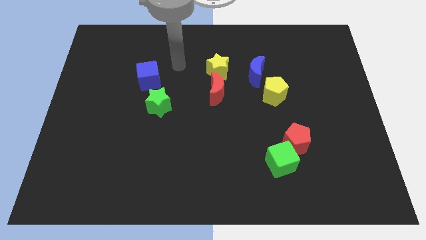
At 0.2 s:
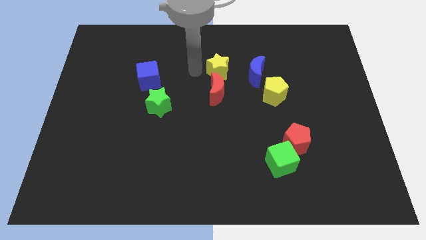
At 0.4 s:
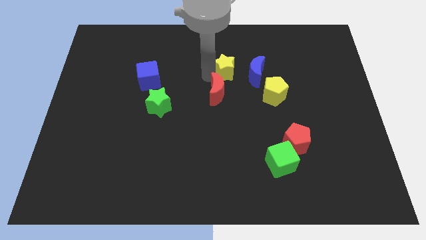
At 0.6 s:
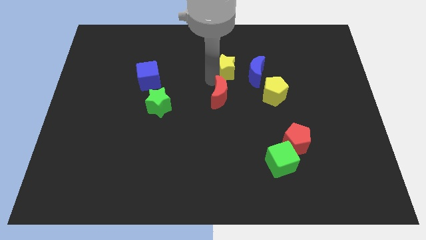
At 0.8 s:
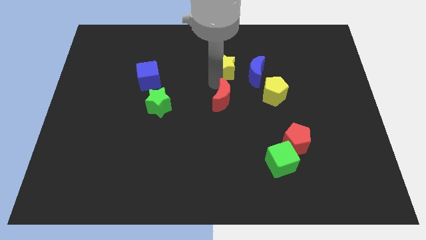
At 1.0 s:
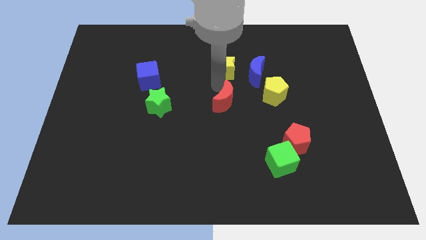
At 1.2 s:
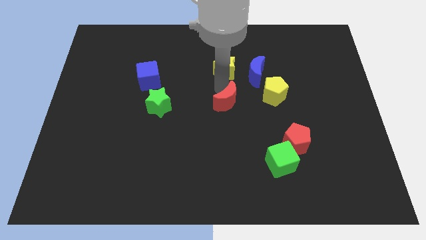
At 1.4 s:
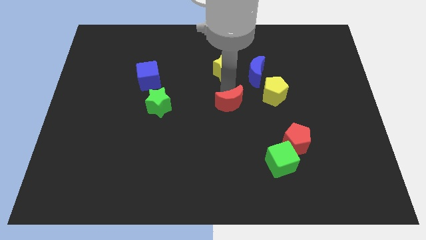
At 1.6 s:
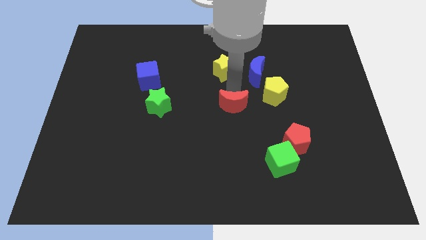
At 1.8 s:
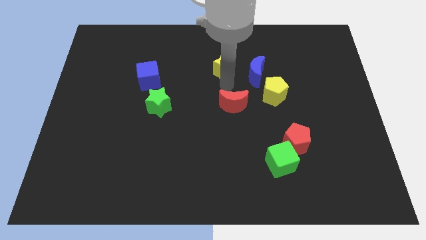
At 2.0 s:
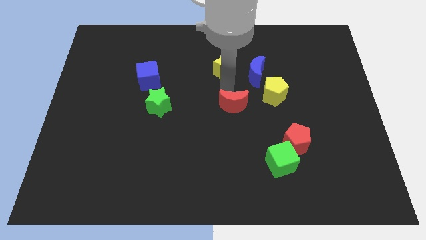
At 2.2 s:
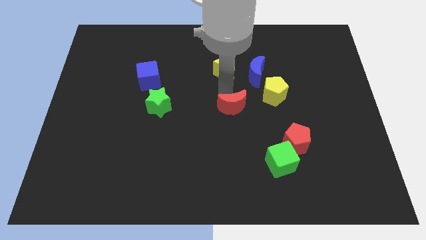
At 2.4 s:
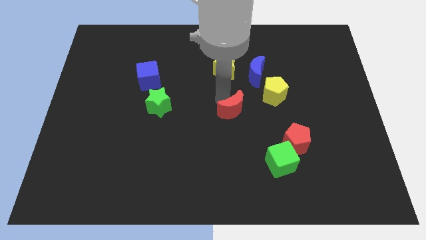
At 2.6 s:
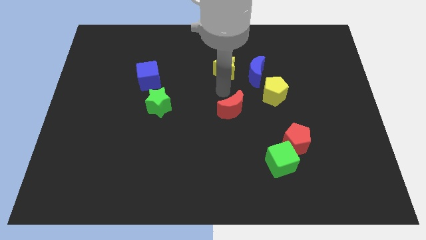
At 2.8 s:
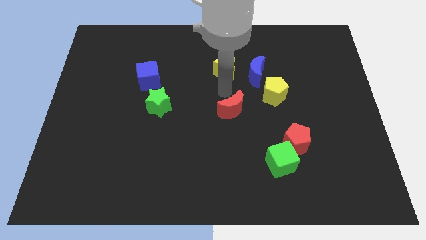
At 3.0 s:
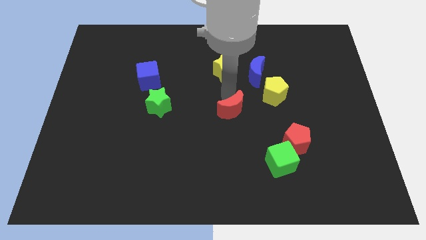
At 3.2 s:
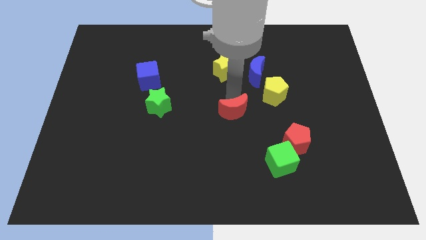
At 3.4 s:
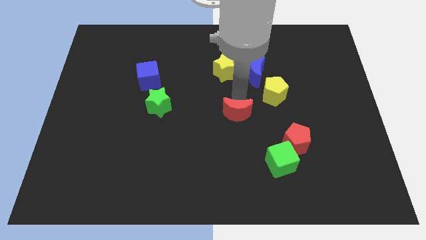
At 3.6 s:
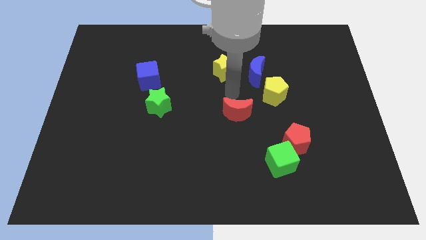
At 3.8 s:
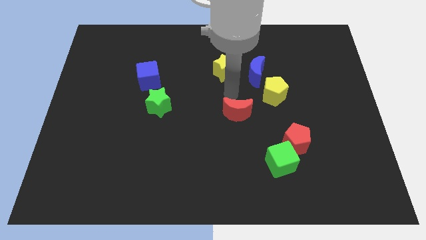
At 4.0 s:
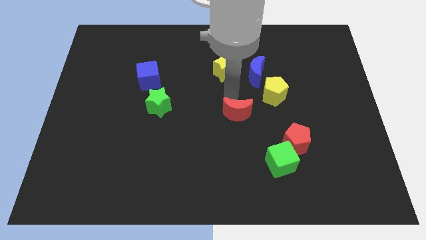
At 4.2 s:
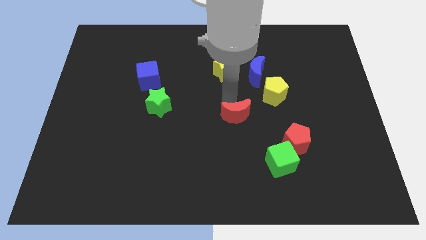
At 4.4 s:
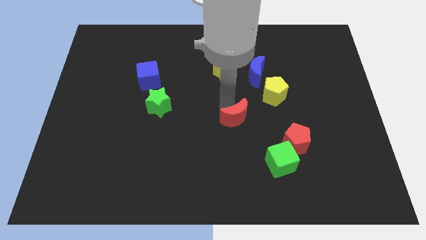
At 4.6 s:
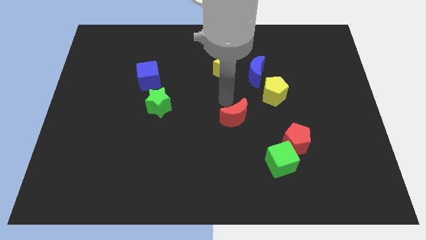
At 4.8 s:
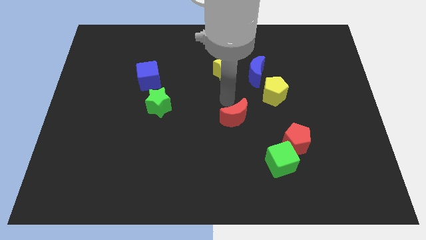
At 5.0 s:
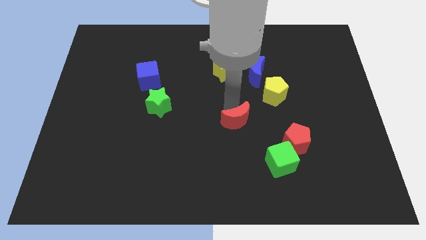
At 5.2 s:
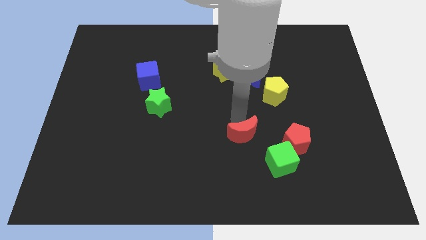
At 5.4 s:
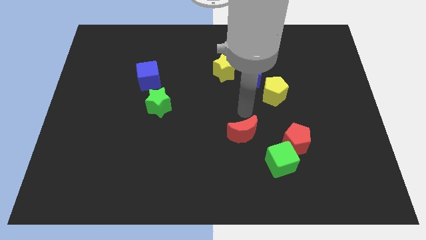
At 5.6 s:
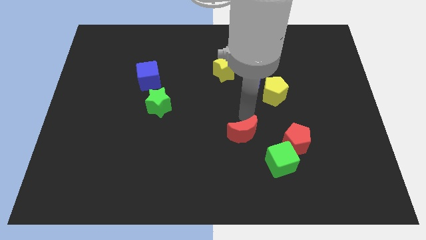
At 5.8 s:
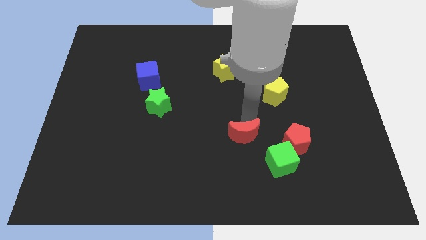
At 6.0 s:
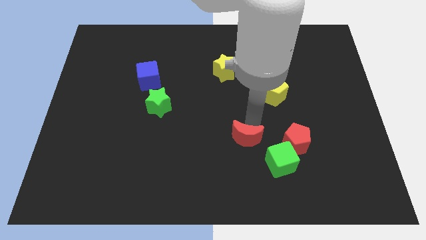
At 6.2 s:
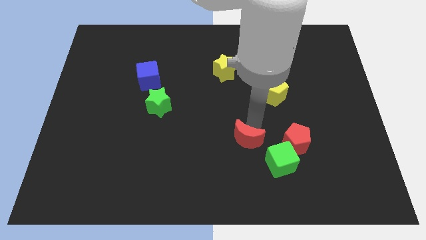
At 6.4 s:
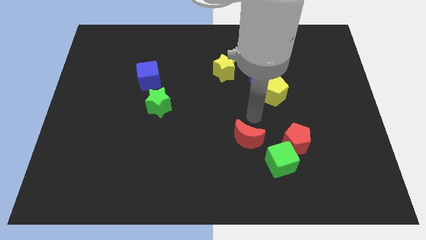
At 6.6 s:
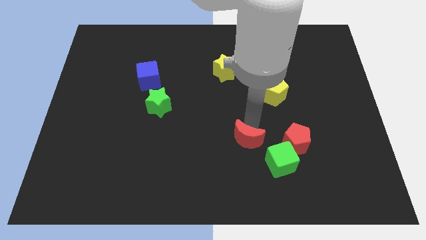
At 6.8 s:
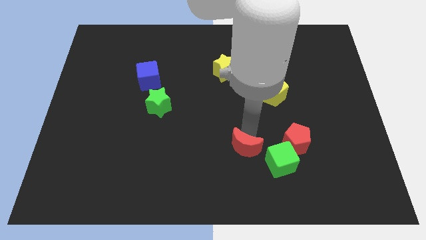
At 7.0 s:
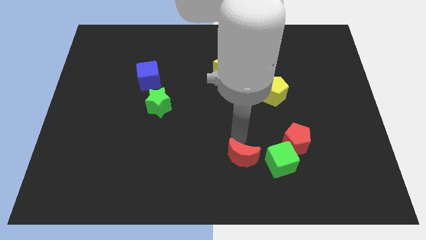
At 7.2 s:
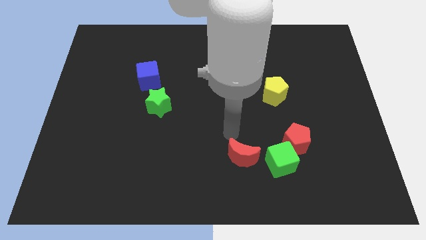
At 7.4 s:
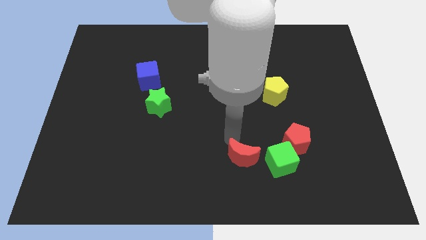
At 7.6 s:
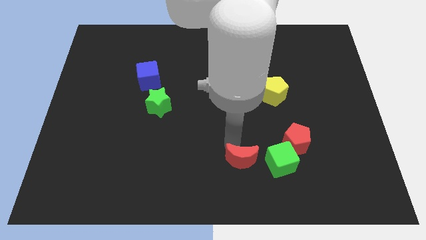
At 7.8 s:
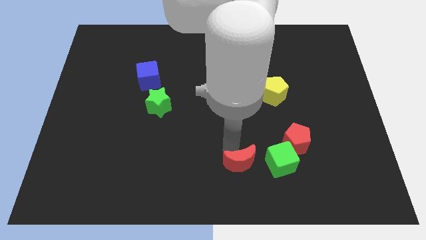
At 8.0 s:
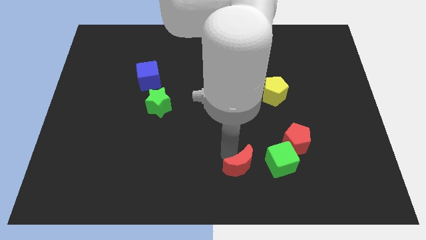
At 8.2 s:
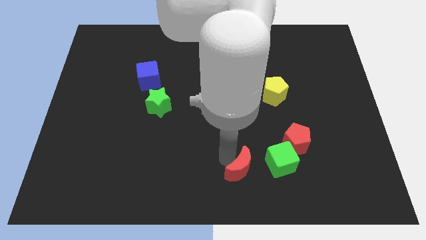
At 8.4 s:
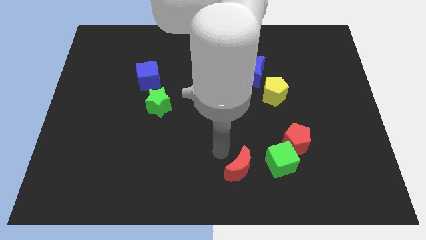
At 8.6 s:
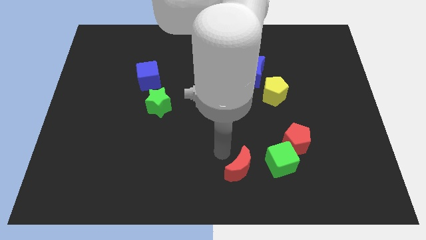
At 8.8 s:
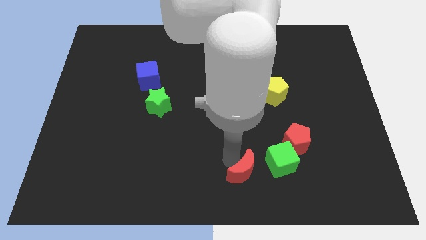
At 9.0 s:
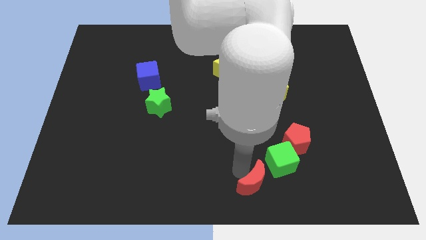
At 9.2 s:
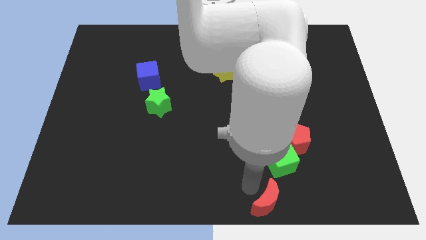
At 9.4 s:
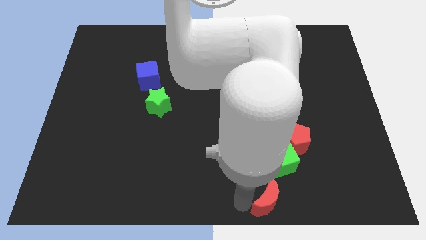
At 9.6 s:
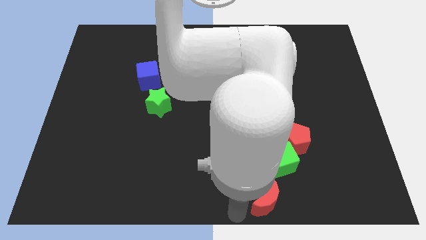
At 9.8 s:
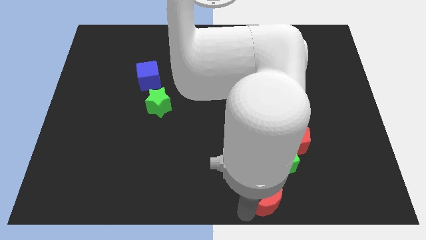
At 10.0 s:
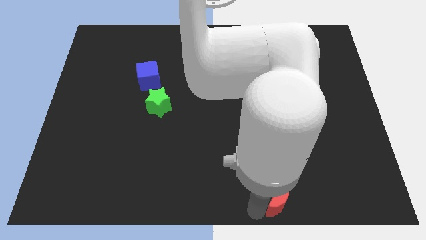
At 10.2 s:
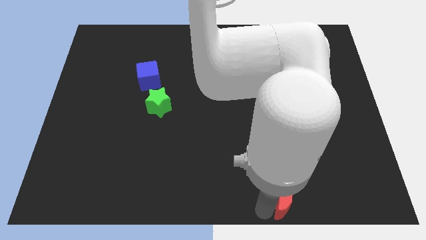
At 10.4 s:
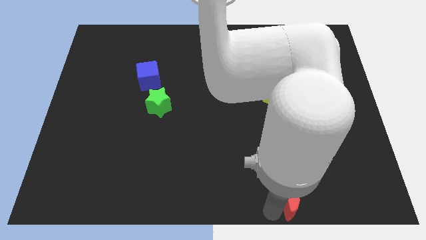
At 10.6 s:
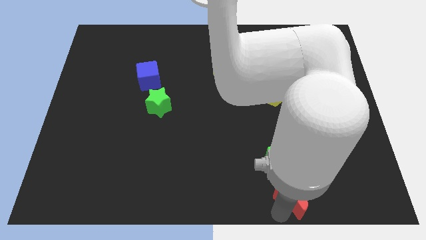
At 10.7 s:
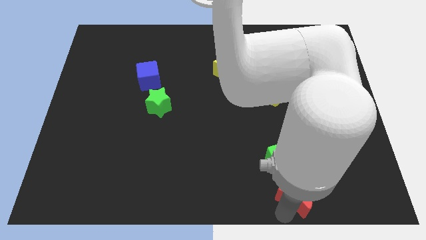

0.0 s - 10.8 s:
slide the red moon to the bottom right side of the green cube

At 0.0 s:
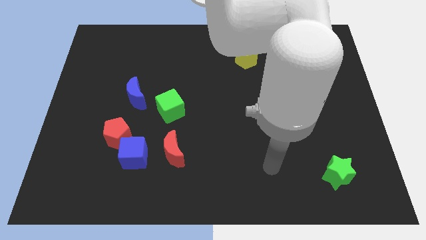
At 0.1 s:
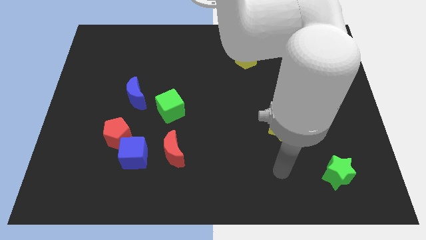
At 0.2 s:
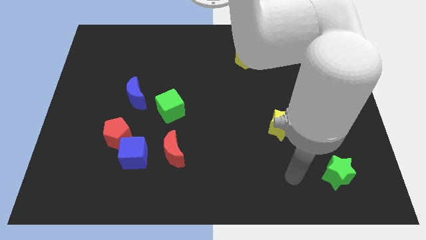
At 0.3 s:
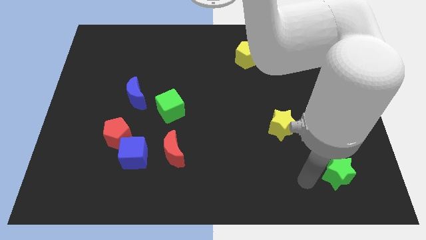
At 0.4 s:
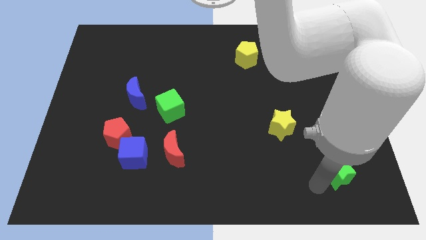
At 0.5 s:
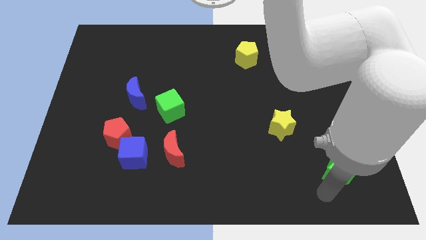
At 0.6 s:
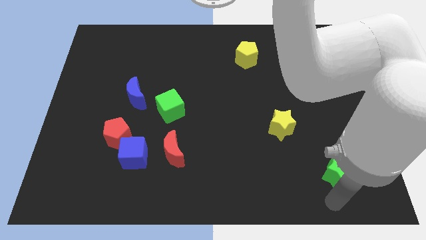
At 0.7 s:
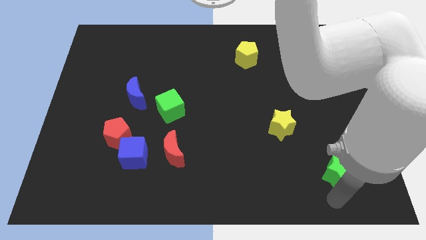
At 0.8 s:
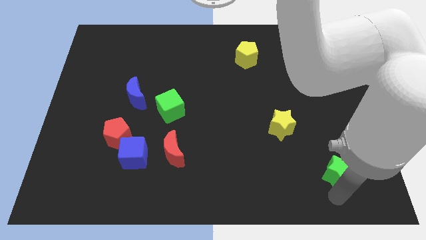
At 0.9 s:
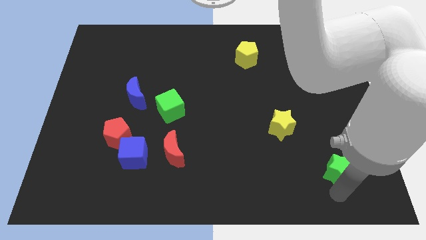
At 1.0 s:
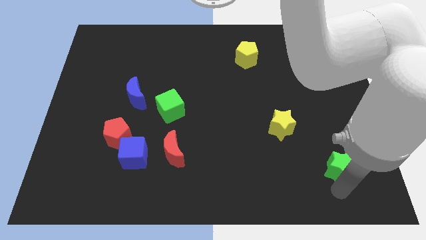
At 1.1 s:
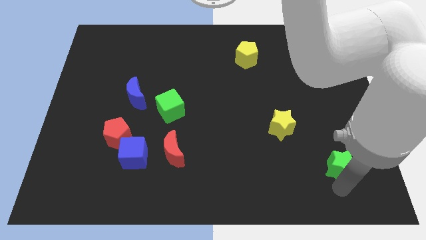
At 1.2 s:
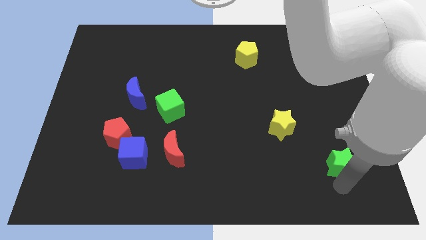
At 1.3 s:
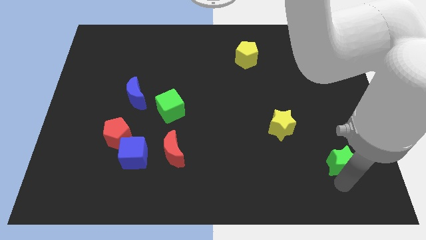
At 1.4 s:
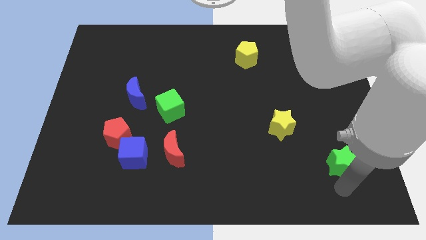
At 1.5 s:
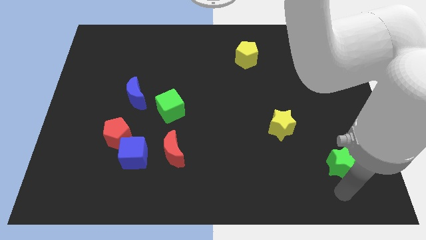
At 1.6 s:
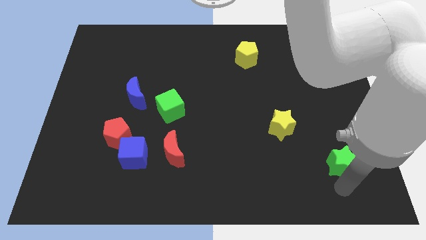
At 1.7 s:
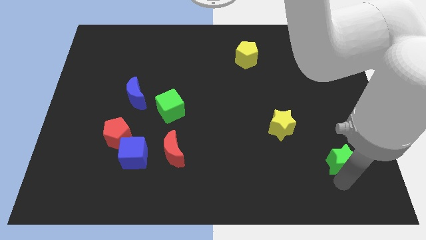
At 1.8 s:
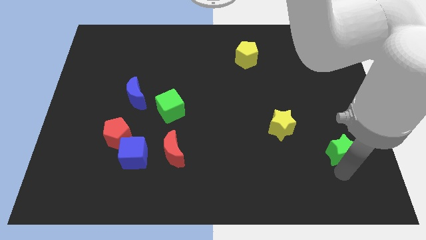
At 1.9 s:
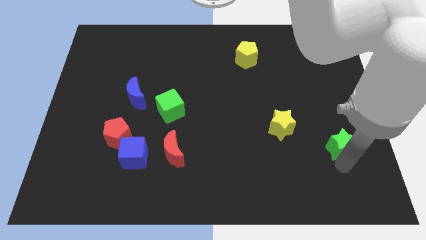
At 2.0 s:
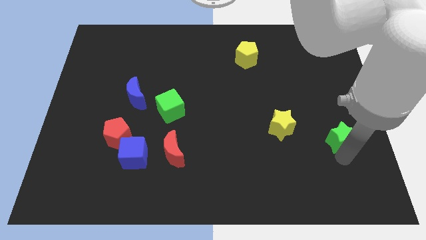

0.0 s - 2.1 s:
put the green star to the right of the yellow star
